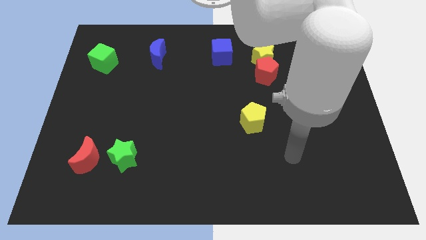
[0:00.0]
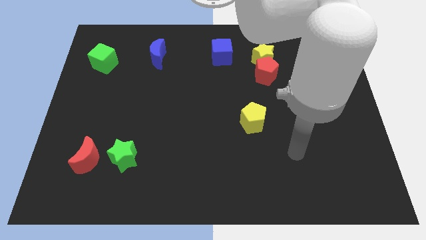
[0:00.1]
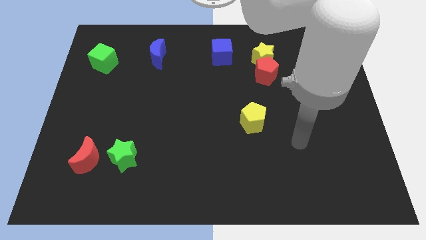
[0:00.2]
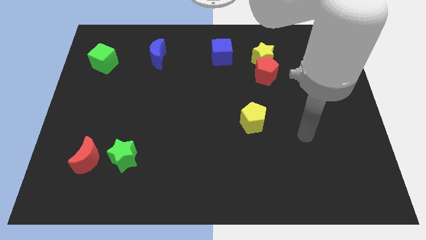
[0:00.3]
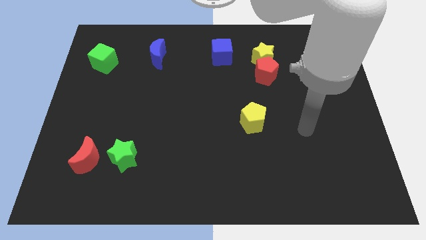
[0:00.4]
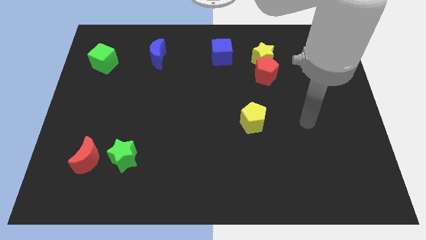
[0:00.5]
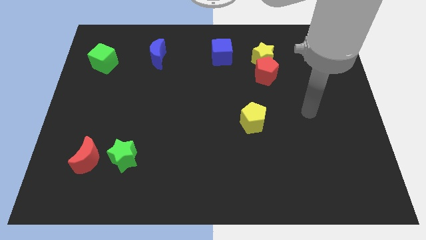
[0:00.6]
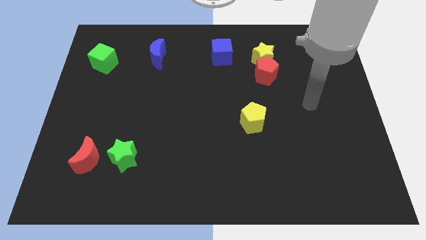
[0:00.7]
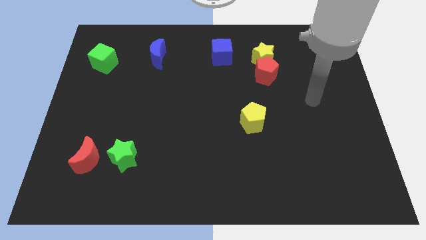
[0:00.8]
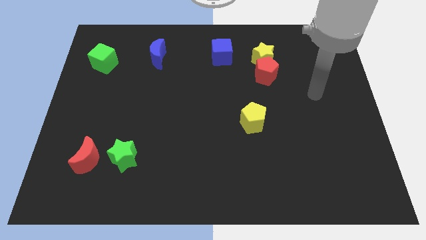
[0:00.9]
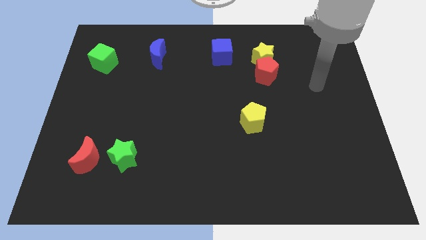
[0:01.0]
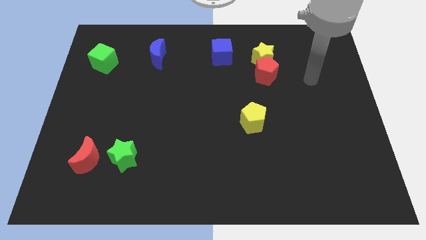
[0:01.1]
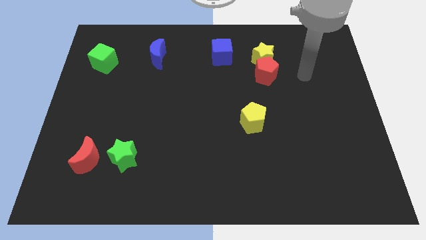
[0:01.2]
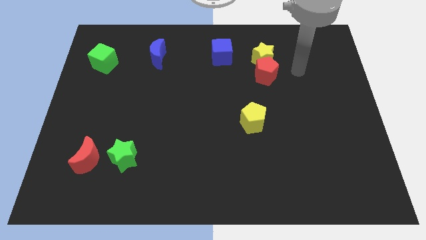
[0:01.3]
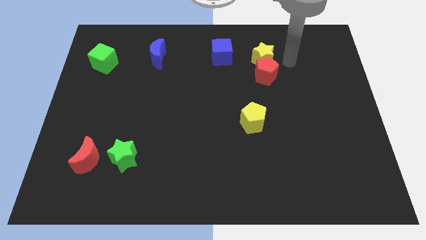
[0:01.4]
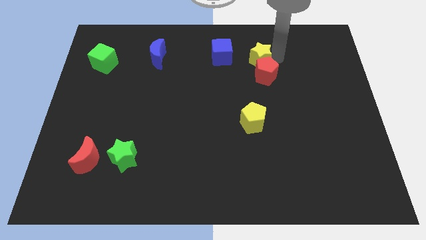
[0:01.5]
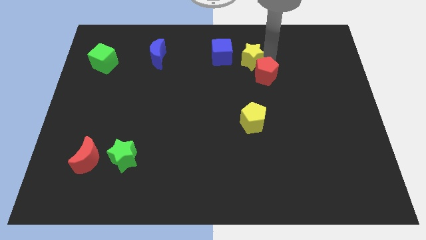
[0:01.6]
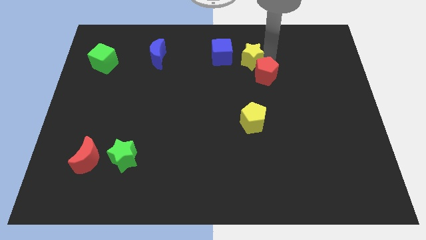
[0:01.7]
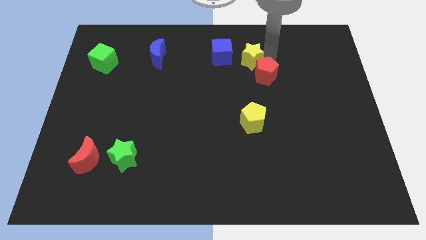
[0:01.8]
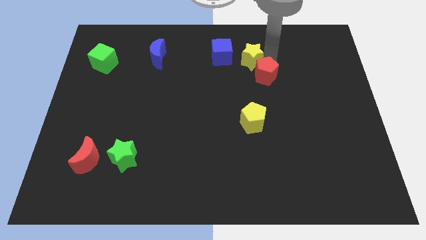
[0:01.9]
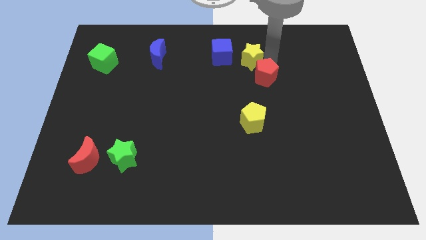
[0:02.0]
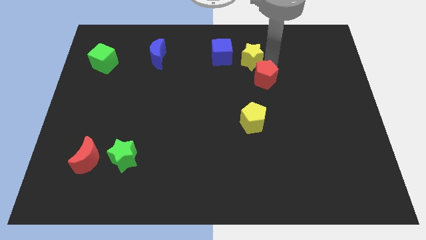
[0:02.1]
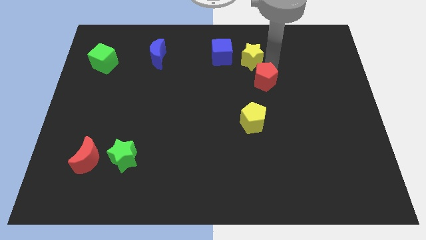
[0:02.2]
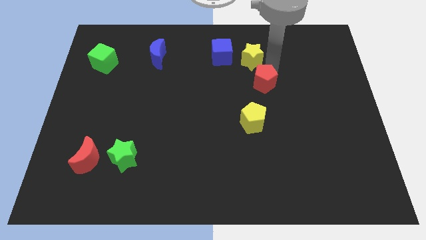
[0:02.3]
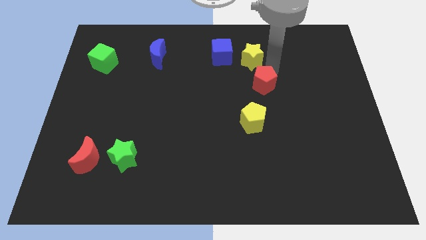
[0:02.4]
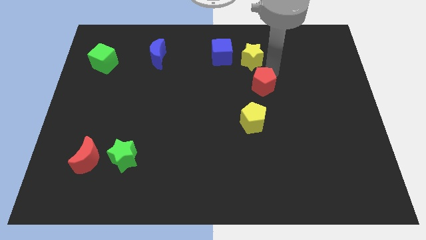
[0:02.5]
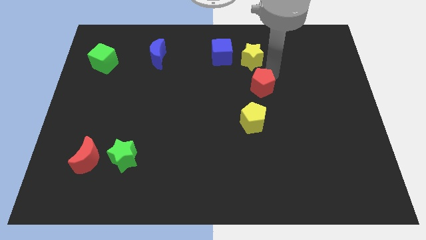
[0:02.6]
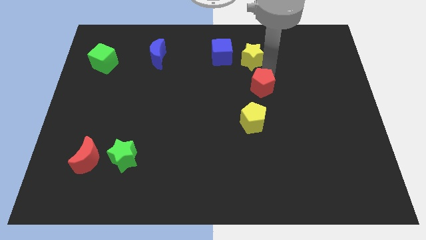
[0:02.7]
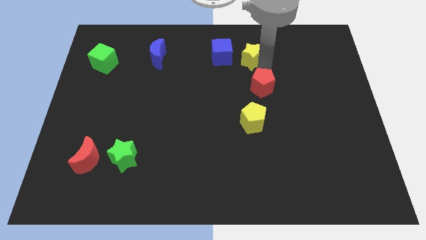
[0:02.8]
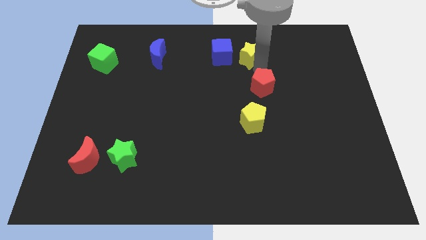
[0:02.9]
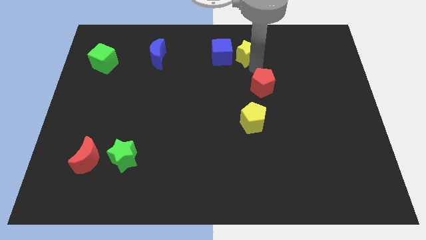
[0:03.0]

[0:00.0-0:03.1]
separate the red pentagon from the yellow star

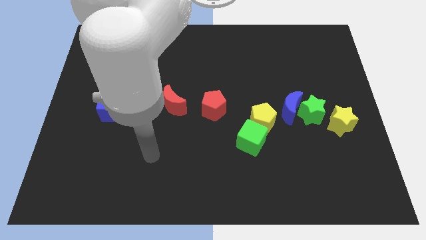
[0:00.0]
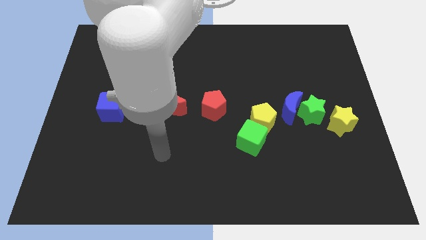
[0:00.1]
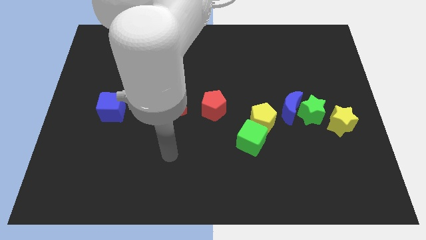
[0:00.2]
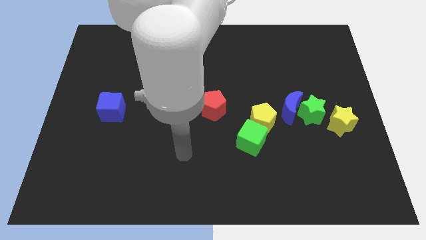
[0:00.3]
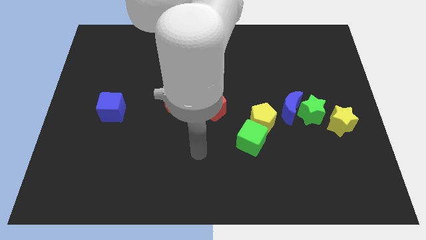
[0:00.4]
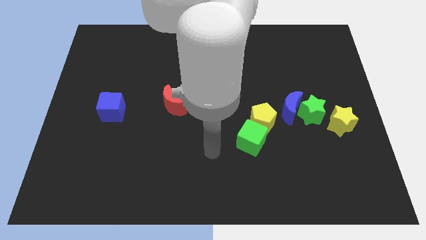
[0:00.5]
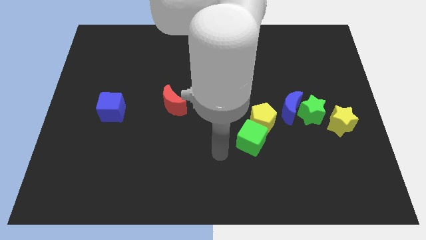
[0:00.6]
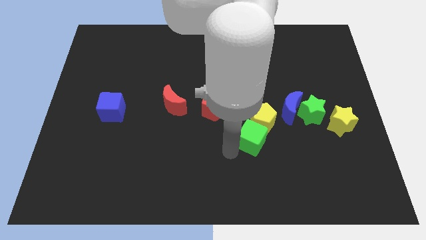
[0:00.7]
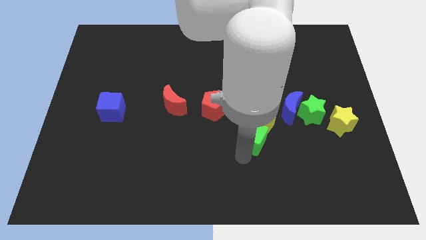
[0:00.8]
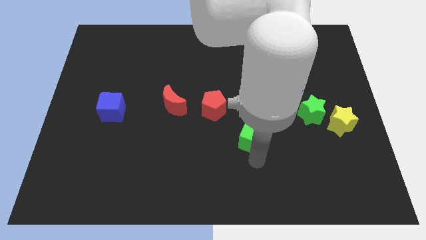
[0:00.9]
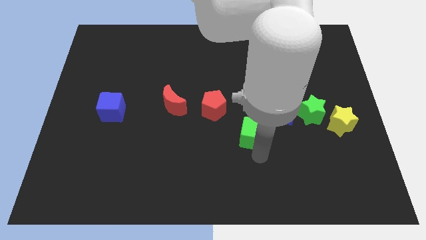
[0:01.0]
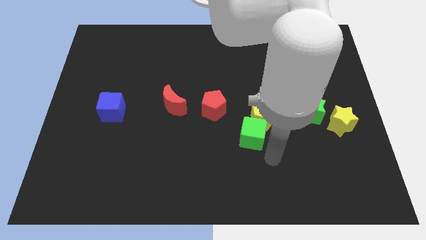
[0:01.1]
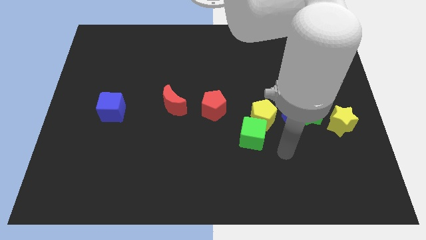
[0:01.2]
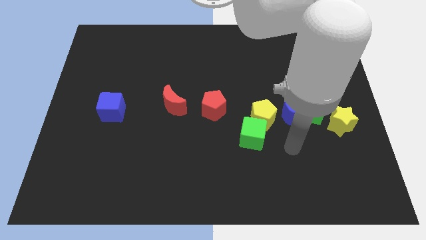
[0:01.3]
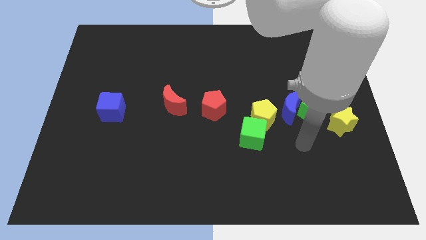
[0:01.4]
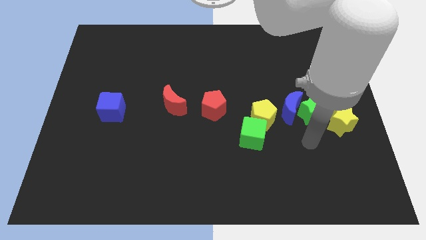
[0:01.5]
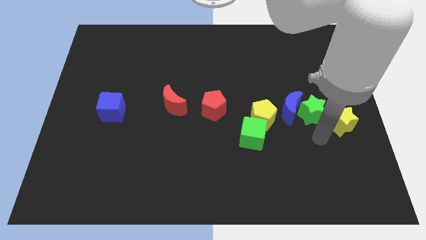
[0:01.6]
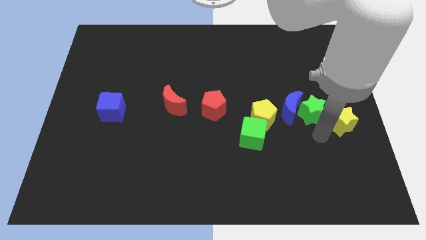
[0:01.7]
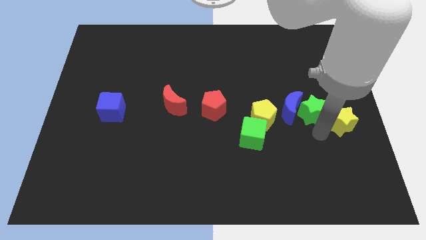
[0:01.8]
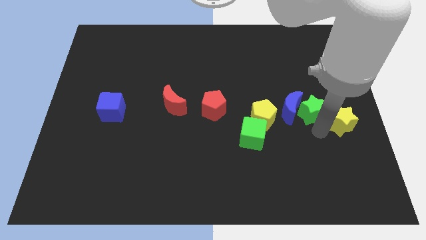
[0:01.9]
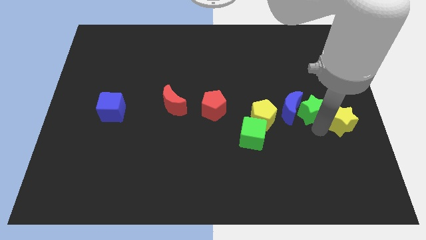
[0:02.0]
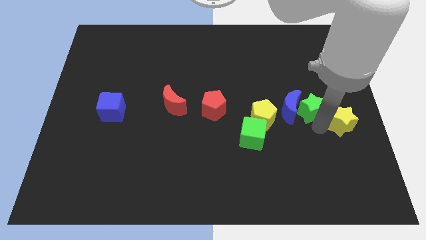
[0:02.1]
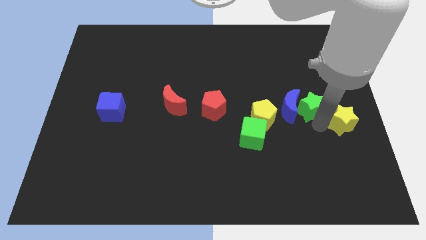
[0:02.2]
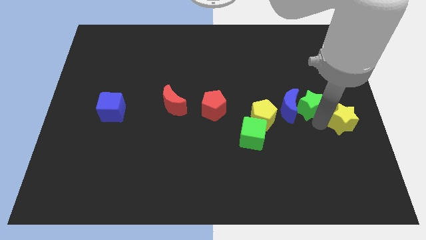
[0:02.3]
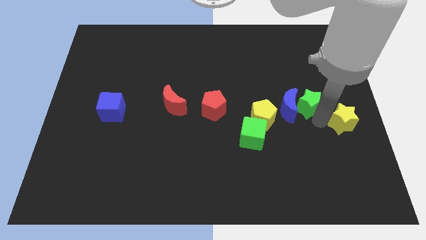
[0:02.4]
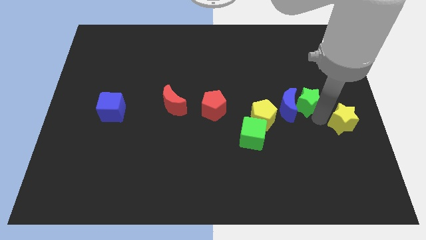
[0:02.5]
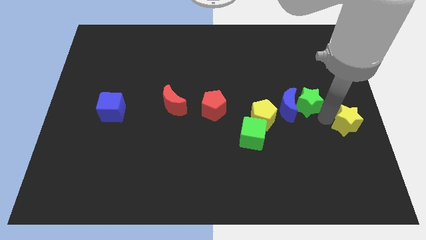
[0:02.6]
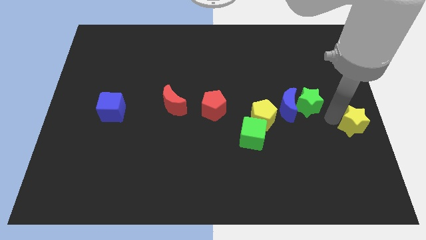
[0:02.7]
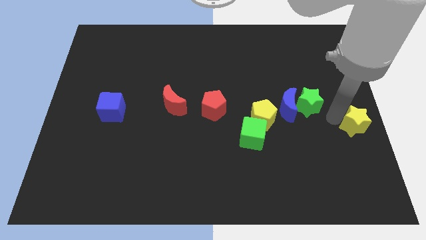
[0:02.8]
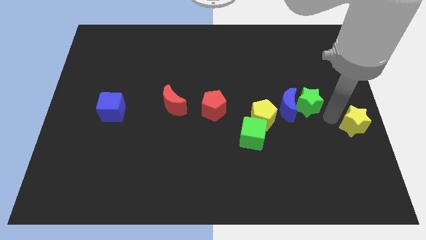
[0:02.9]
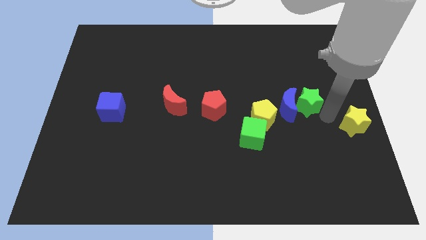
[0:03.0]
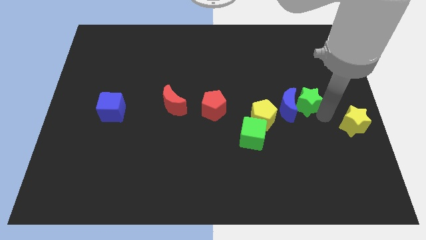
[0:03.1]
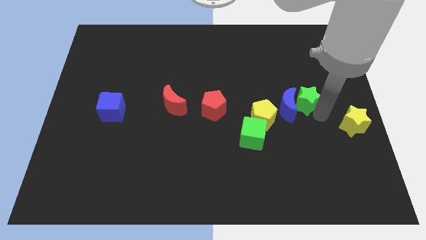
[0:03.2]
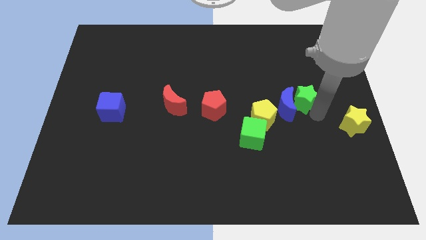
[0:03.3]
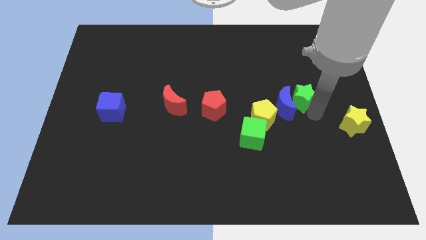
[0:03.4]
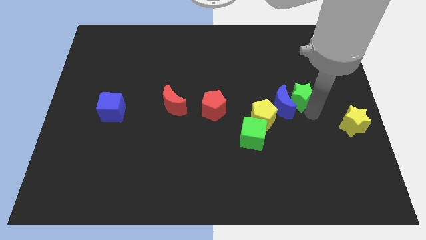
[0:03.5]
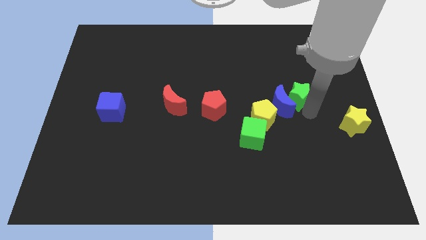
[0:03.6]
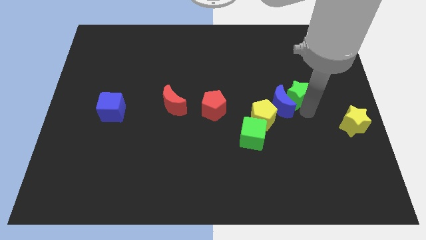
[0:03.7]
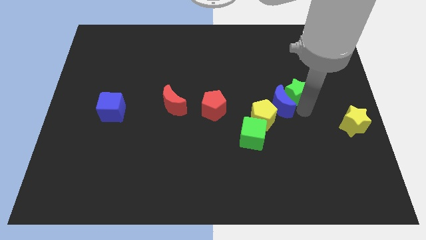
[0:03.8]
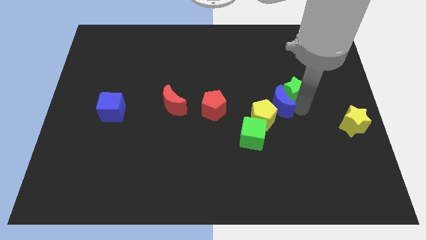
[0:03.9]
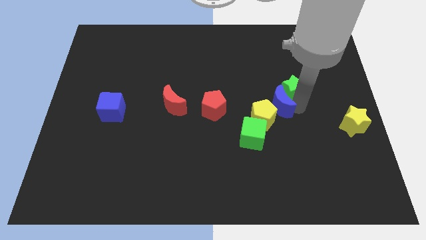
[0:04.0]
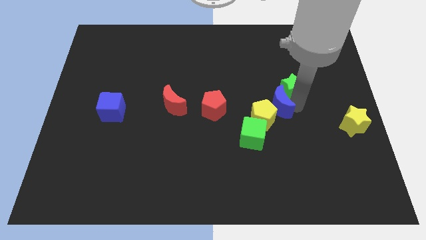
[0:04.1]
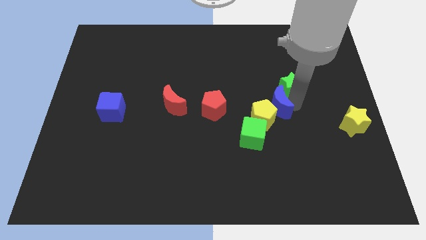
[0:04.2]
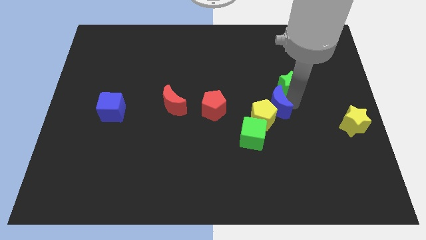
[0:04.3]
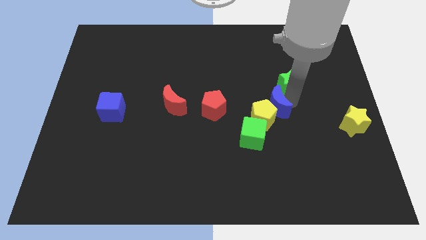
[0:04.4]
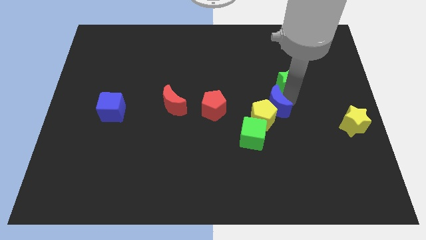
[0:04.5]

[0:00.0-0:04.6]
separate the green star from the blue moon and yellow star

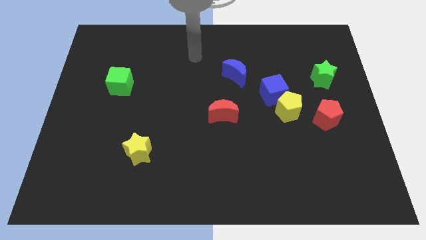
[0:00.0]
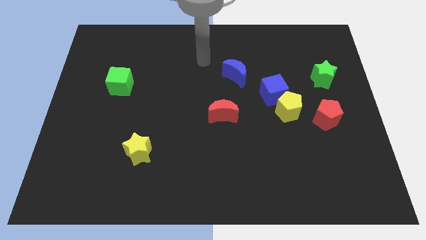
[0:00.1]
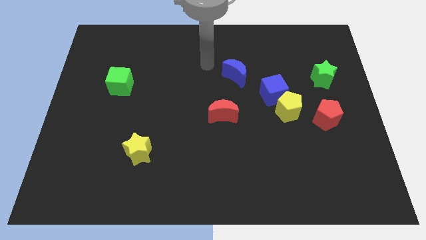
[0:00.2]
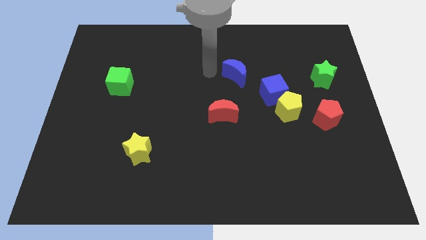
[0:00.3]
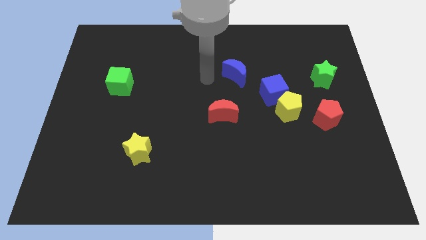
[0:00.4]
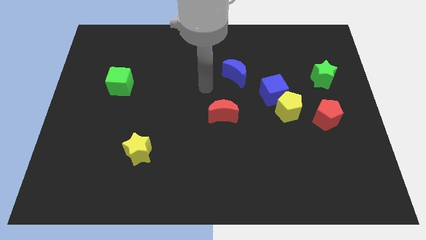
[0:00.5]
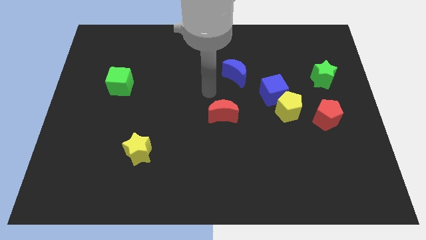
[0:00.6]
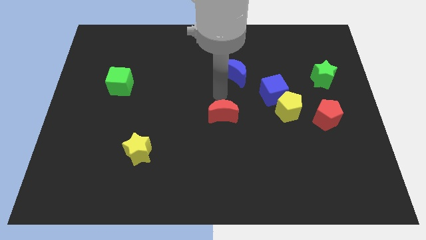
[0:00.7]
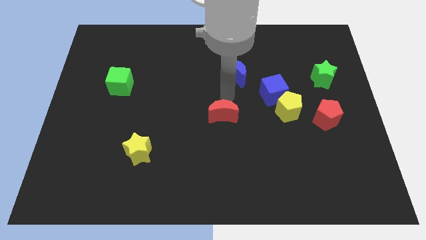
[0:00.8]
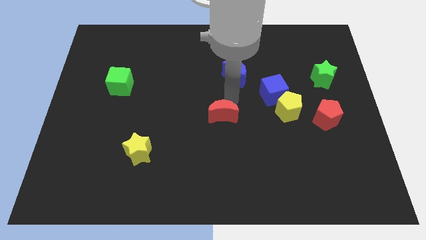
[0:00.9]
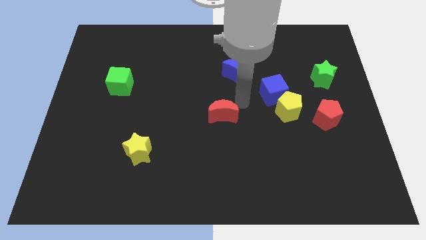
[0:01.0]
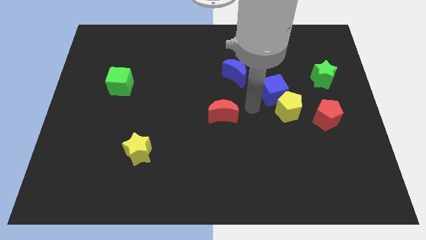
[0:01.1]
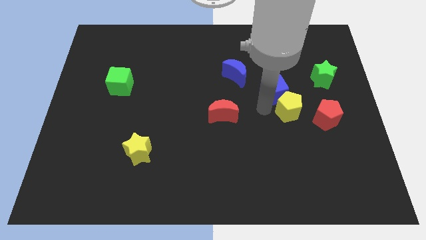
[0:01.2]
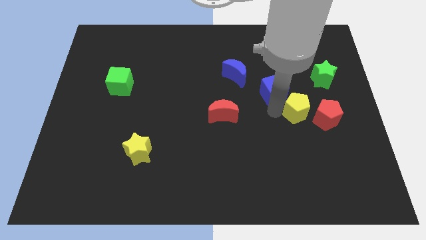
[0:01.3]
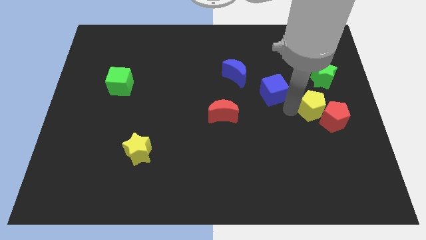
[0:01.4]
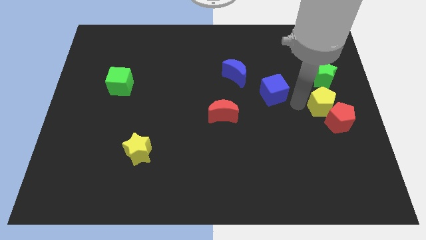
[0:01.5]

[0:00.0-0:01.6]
pull the blue cube apart from the yellow pentagon

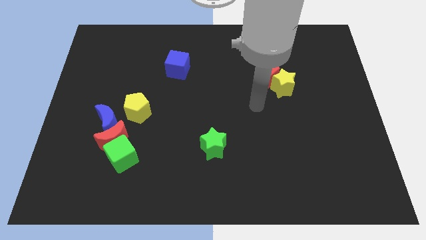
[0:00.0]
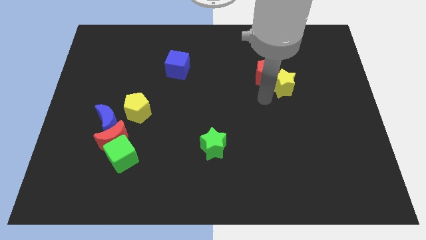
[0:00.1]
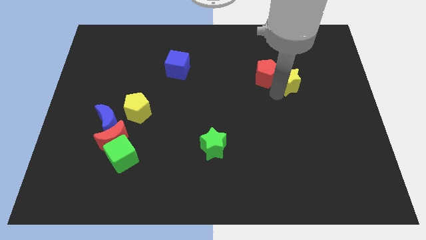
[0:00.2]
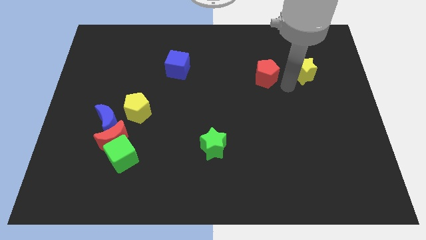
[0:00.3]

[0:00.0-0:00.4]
move the red pentagon away from the yellow star
